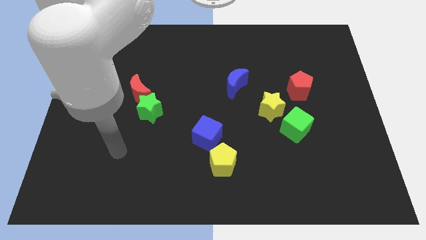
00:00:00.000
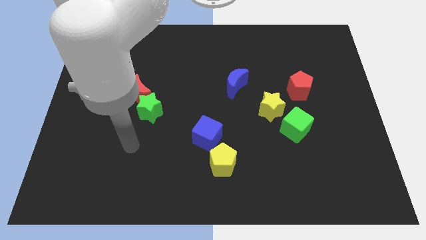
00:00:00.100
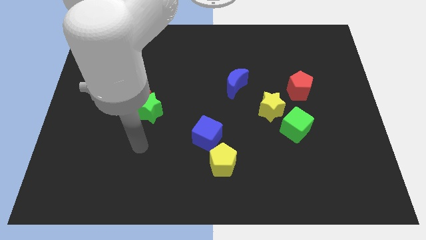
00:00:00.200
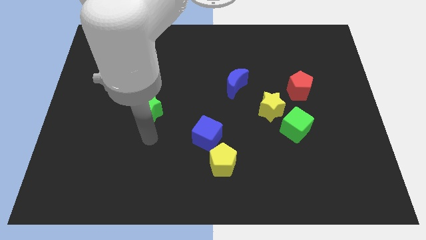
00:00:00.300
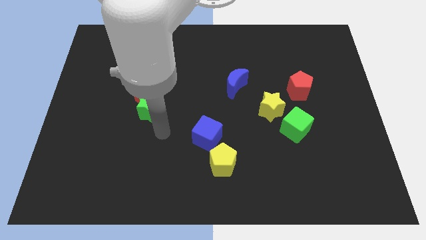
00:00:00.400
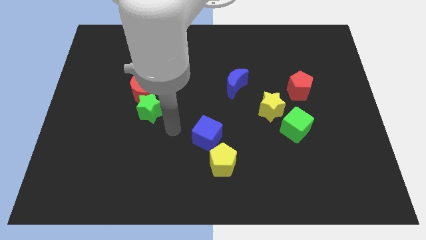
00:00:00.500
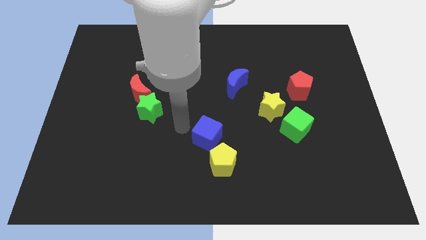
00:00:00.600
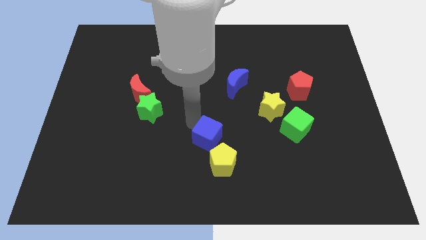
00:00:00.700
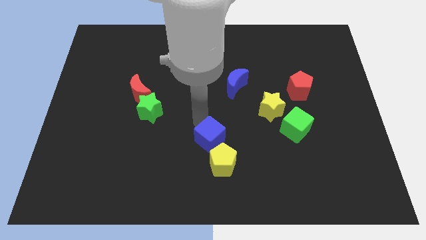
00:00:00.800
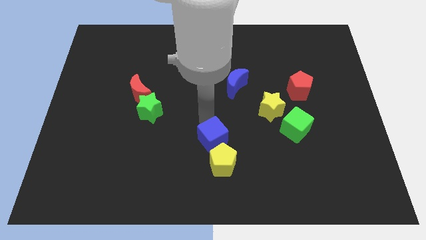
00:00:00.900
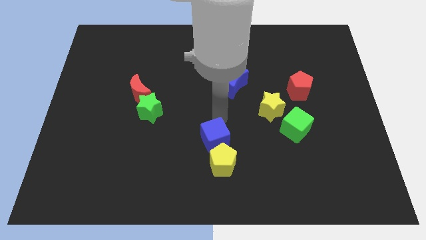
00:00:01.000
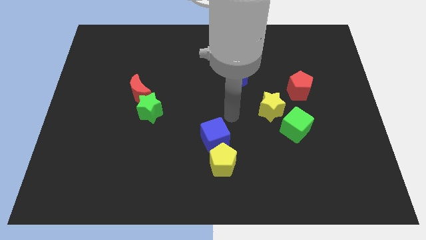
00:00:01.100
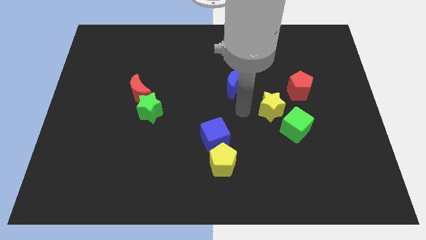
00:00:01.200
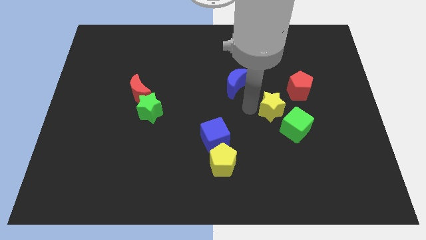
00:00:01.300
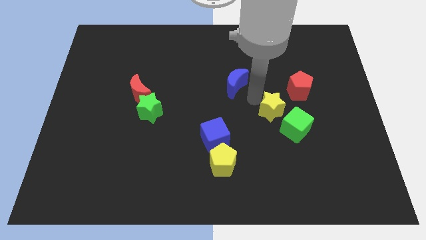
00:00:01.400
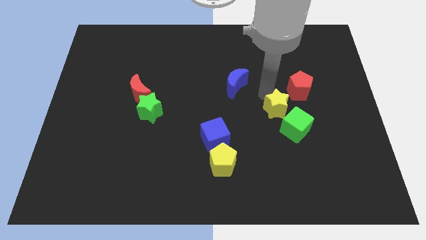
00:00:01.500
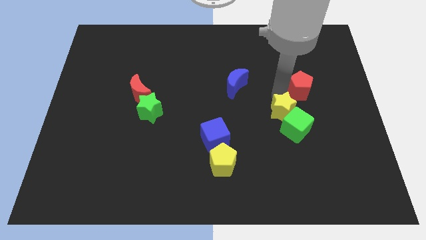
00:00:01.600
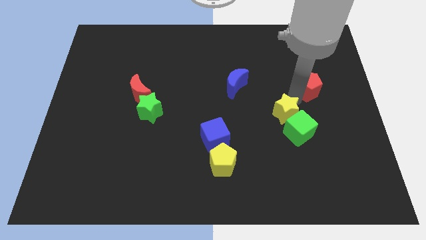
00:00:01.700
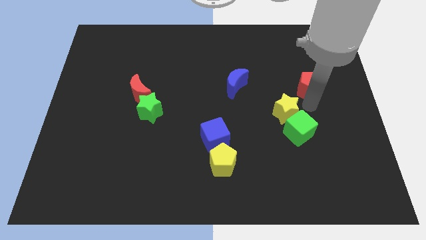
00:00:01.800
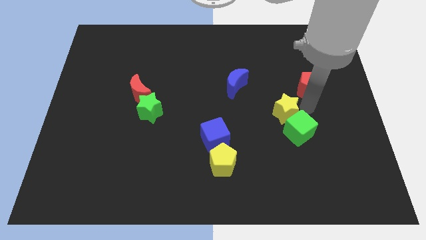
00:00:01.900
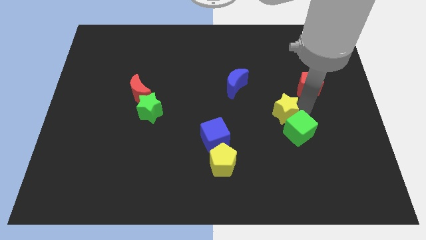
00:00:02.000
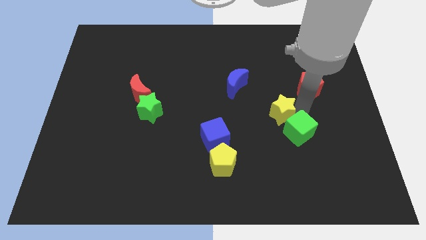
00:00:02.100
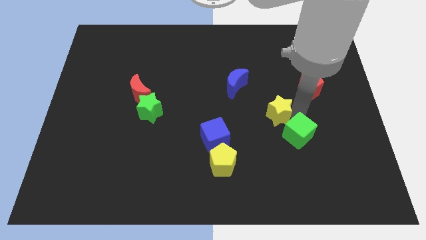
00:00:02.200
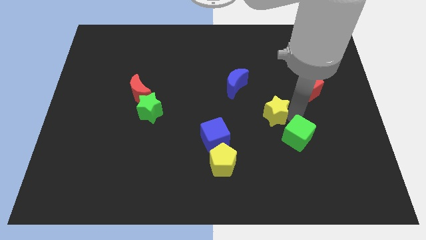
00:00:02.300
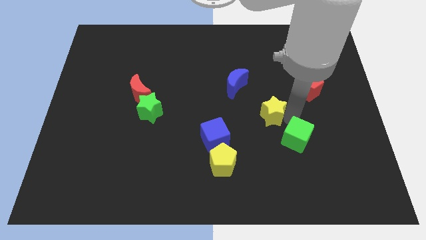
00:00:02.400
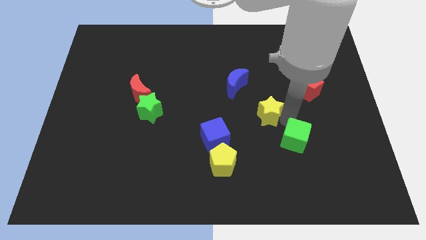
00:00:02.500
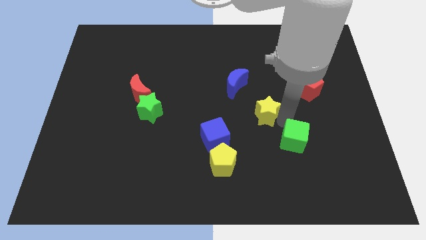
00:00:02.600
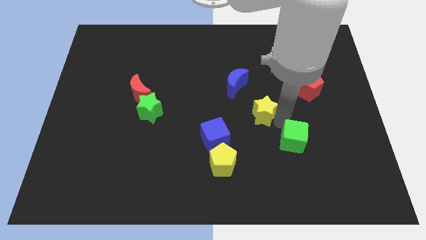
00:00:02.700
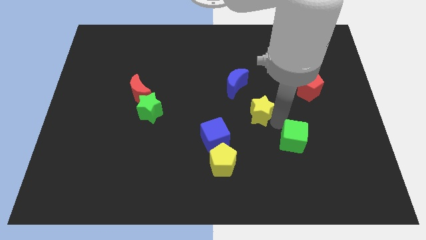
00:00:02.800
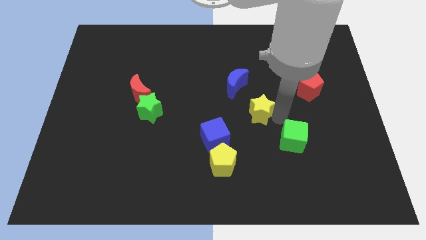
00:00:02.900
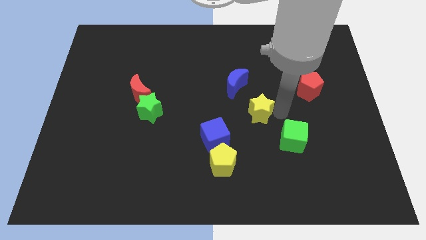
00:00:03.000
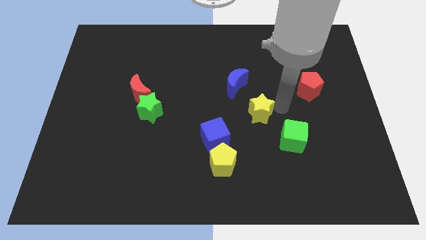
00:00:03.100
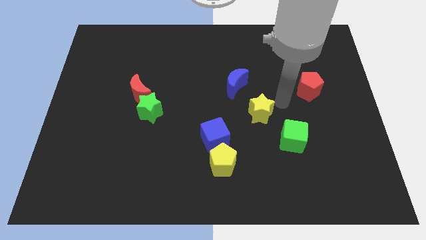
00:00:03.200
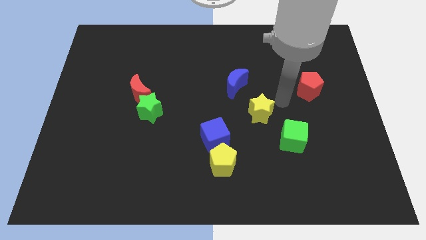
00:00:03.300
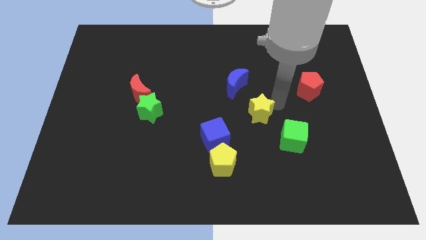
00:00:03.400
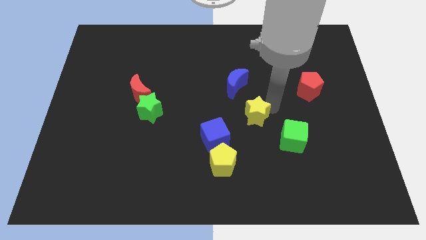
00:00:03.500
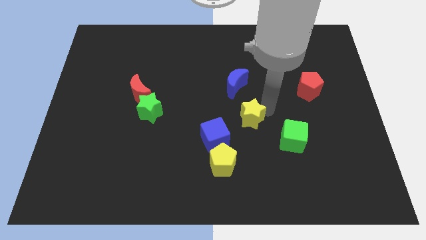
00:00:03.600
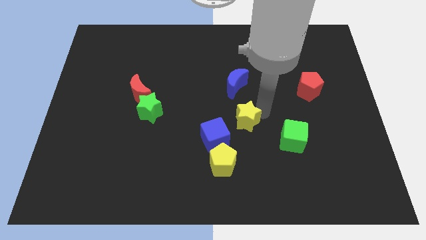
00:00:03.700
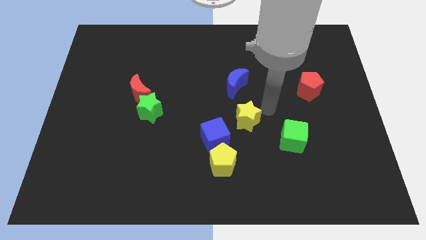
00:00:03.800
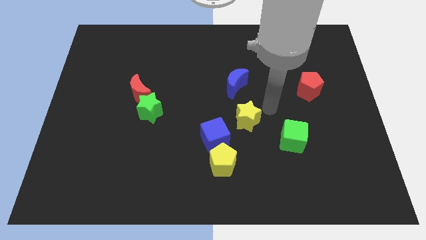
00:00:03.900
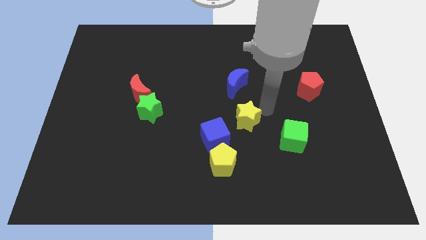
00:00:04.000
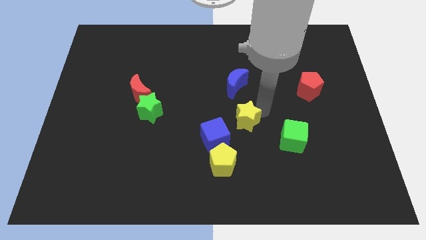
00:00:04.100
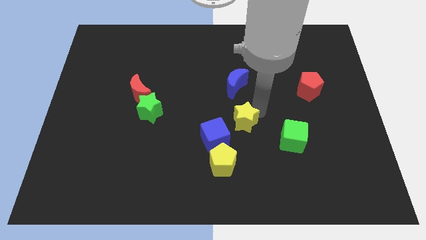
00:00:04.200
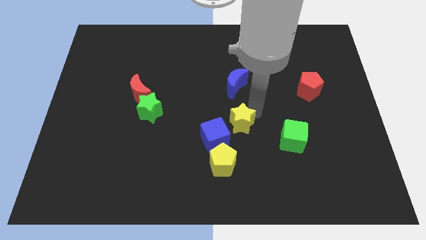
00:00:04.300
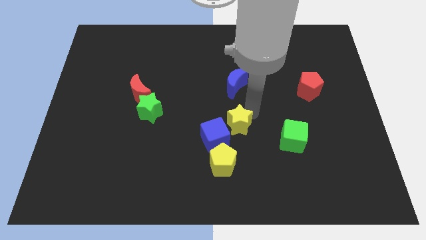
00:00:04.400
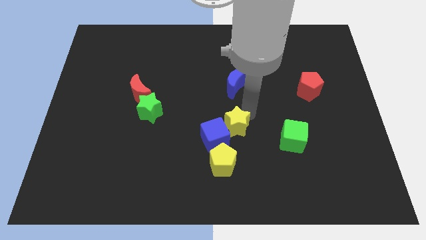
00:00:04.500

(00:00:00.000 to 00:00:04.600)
slide the yellow star next to the blue cube

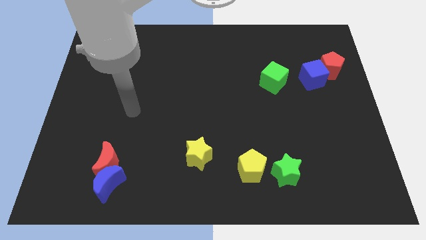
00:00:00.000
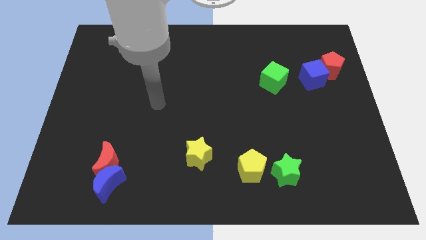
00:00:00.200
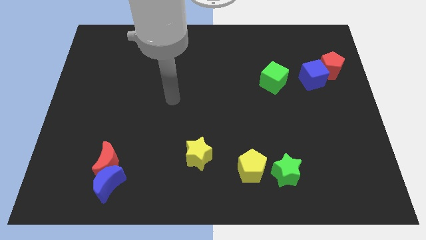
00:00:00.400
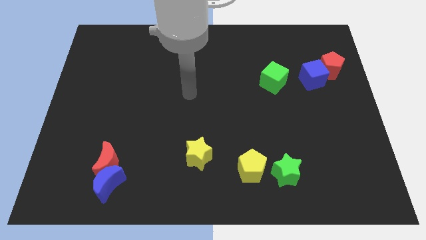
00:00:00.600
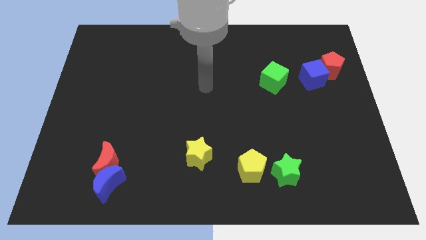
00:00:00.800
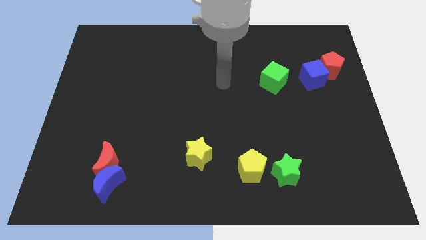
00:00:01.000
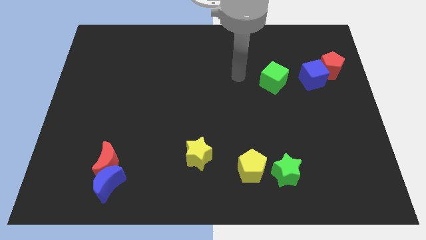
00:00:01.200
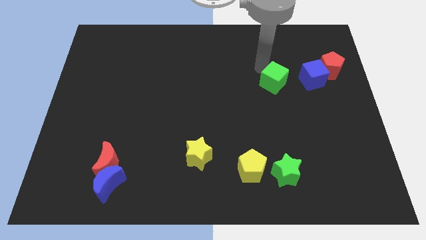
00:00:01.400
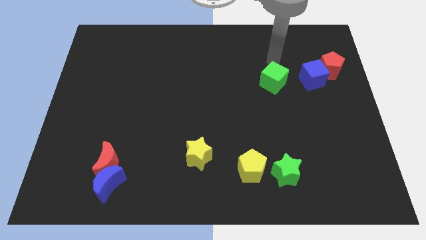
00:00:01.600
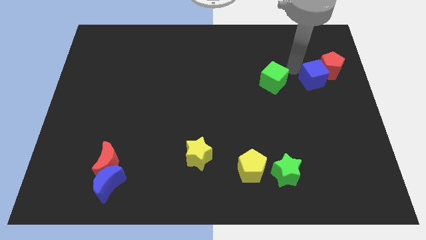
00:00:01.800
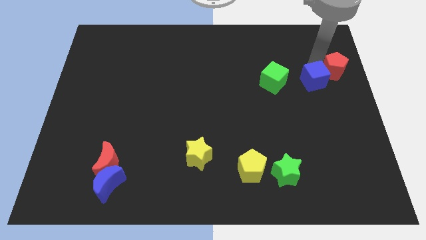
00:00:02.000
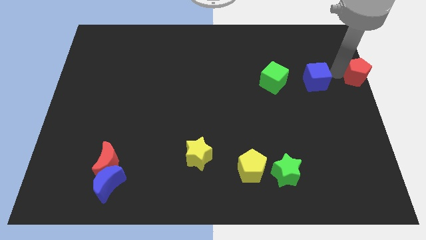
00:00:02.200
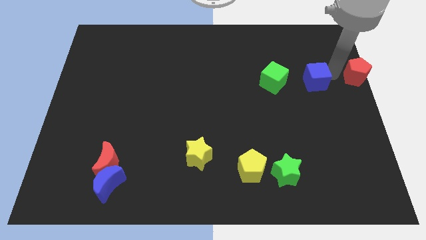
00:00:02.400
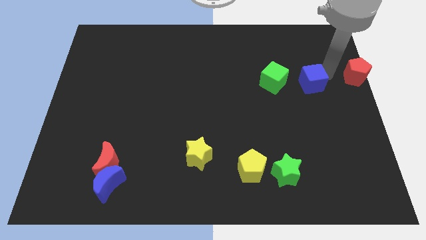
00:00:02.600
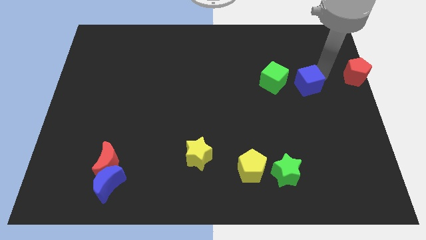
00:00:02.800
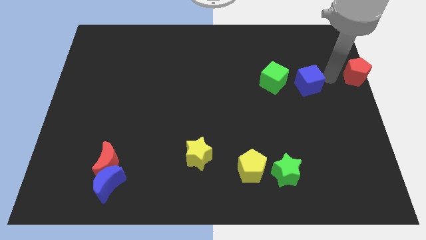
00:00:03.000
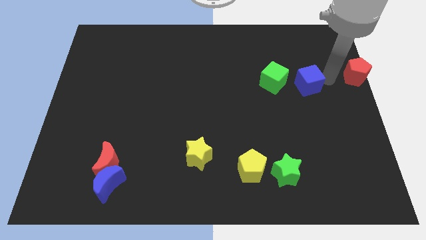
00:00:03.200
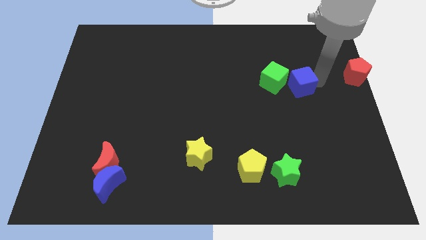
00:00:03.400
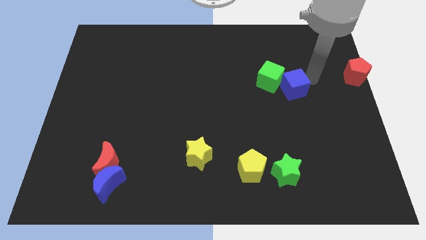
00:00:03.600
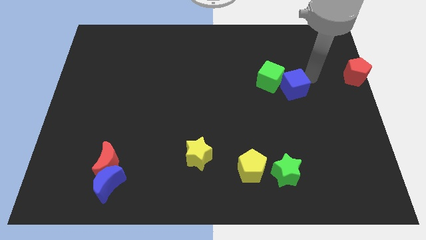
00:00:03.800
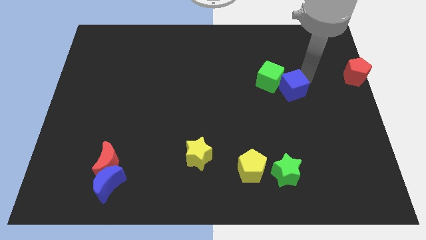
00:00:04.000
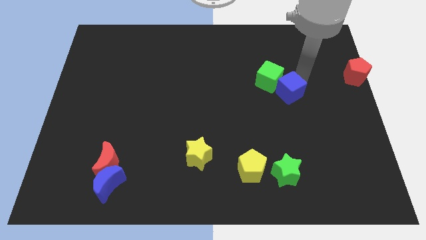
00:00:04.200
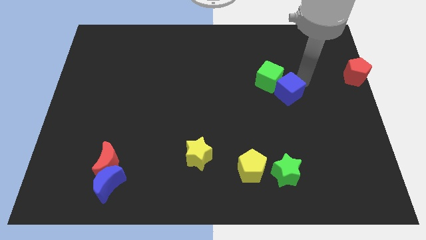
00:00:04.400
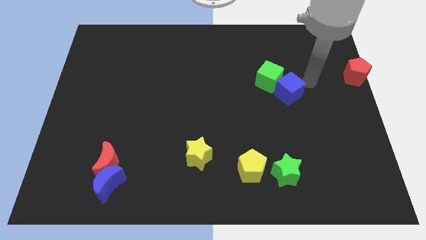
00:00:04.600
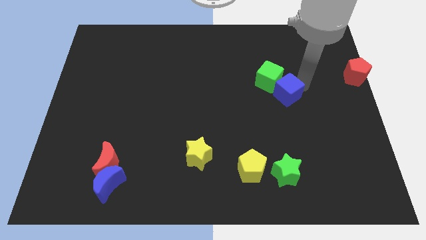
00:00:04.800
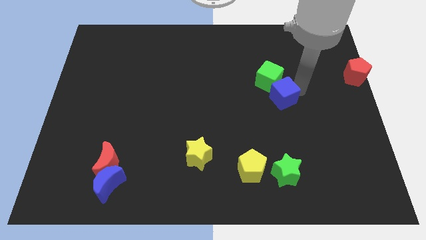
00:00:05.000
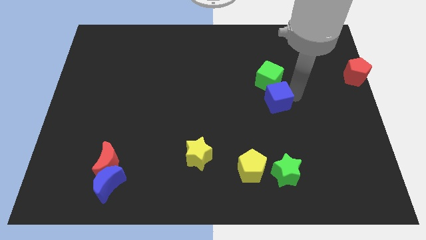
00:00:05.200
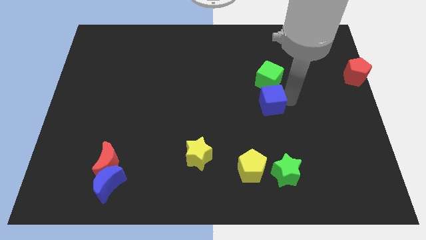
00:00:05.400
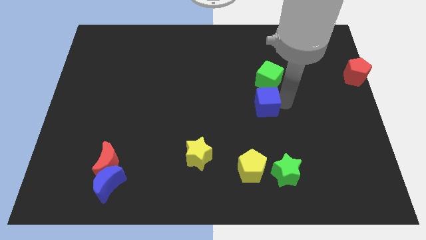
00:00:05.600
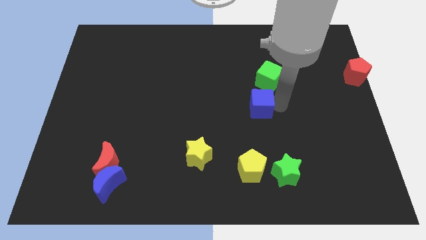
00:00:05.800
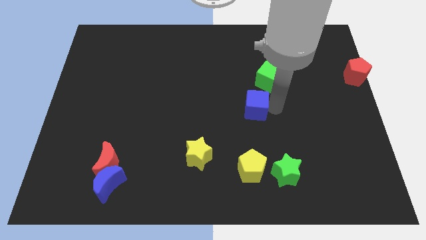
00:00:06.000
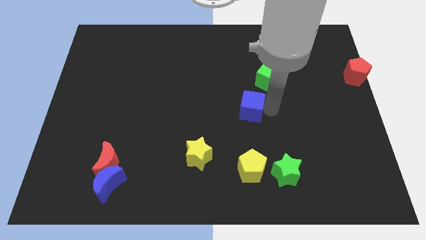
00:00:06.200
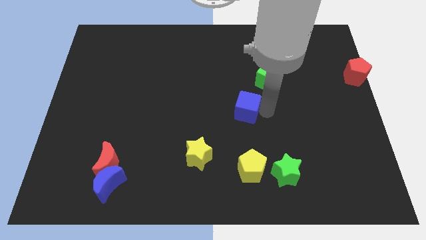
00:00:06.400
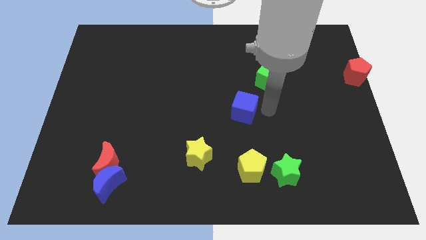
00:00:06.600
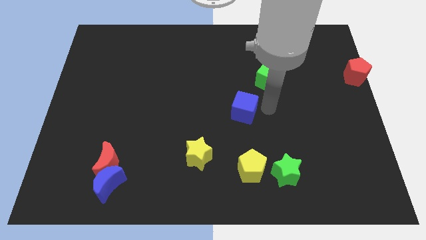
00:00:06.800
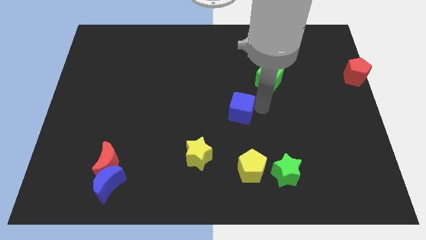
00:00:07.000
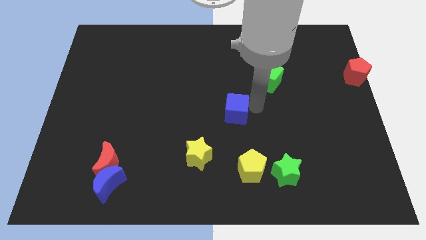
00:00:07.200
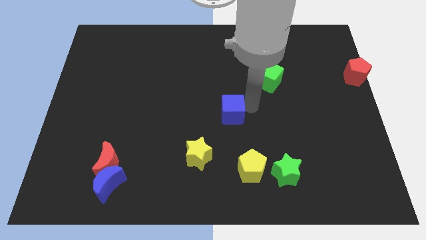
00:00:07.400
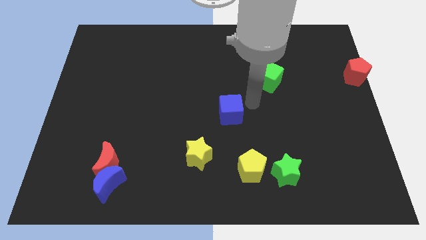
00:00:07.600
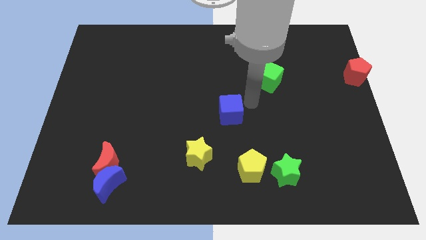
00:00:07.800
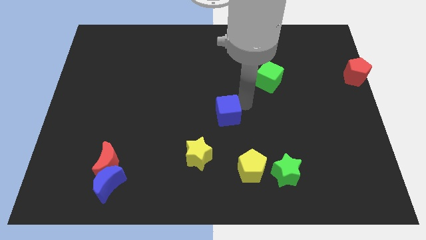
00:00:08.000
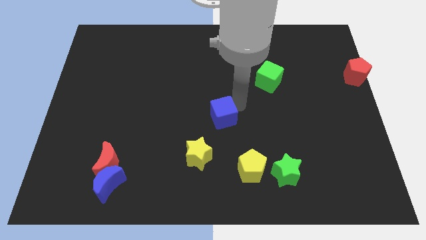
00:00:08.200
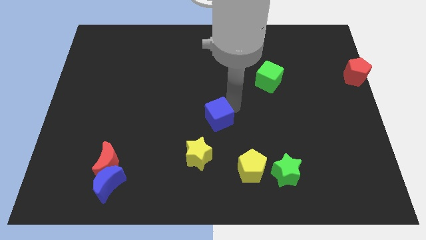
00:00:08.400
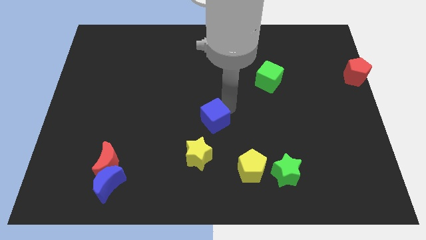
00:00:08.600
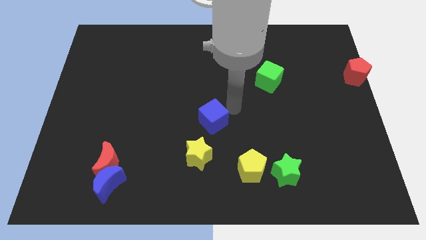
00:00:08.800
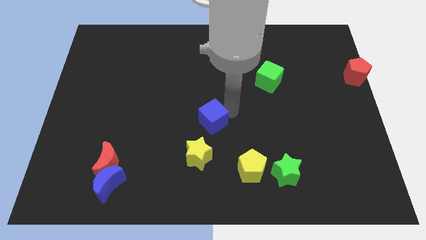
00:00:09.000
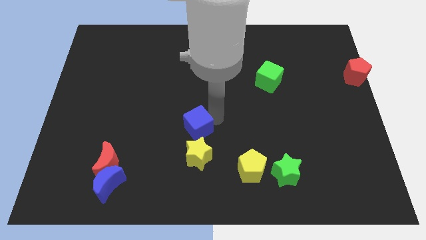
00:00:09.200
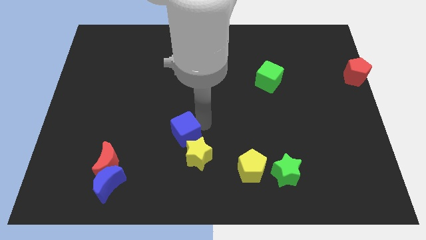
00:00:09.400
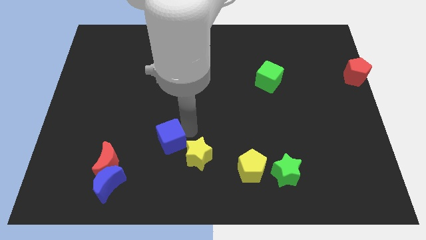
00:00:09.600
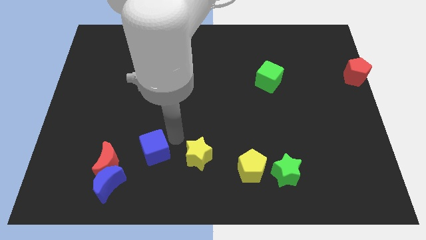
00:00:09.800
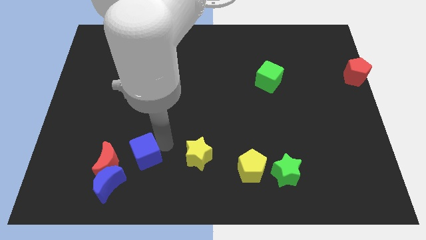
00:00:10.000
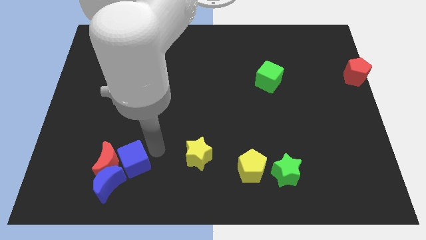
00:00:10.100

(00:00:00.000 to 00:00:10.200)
push the blue cube close to the red moon
